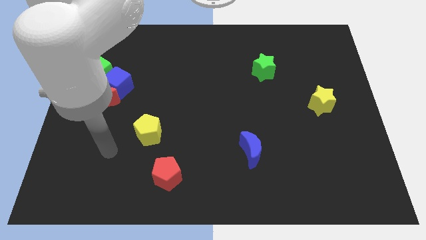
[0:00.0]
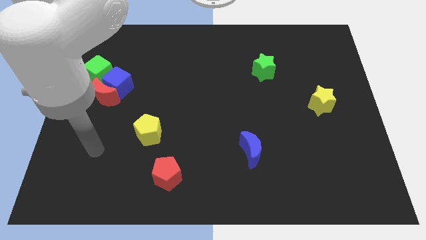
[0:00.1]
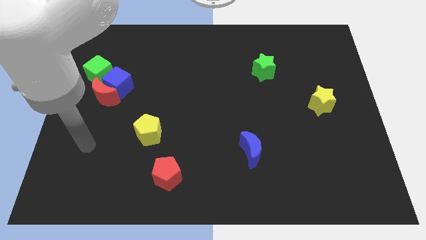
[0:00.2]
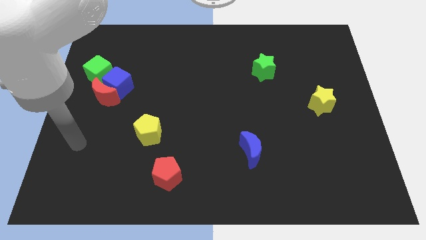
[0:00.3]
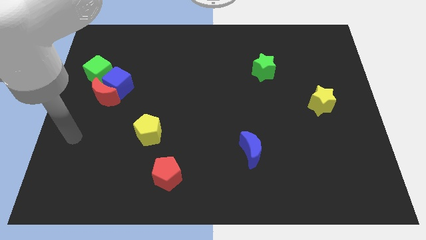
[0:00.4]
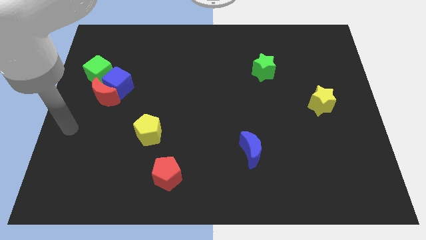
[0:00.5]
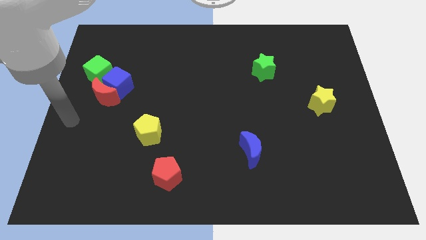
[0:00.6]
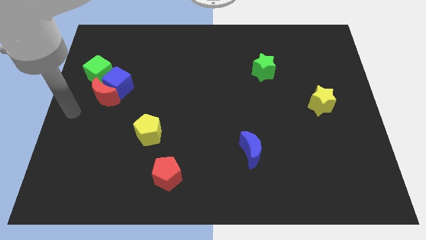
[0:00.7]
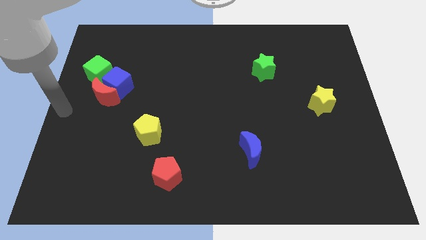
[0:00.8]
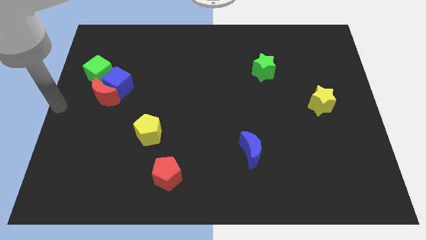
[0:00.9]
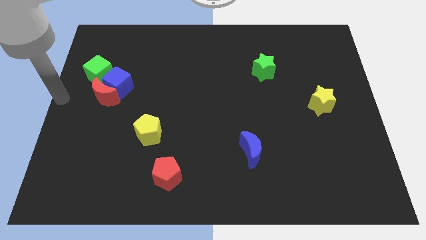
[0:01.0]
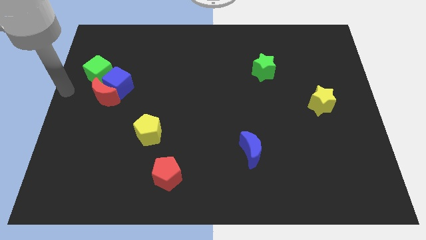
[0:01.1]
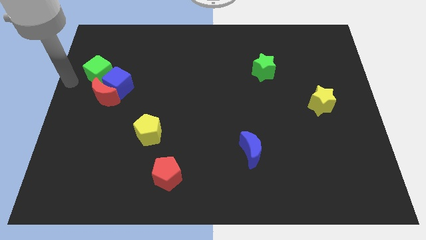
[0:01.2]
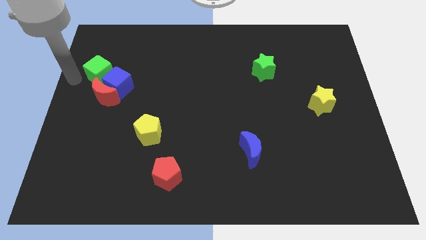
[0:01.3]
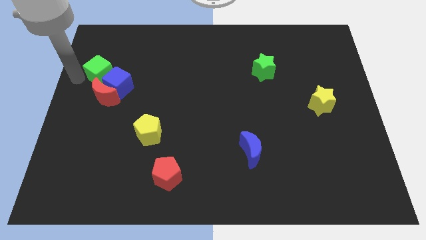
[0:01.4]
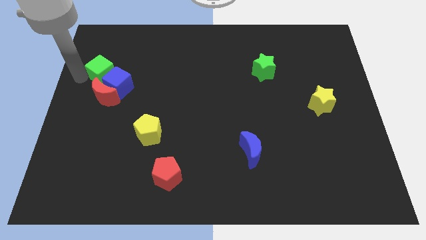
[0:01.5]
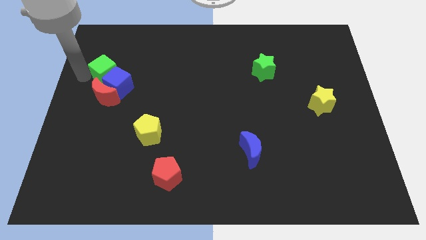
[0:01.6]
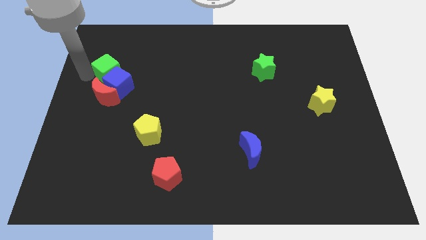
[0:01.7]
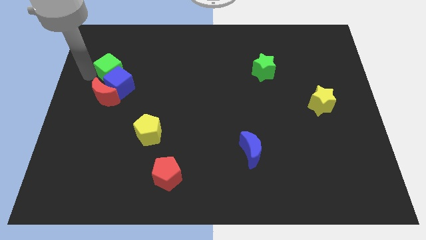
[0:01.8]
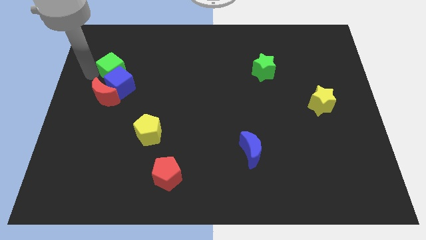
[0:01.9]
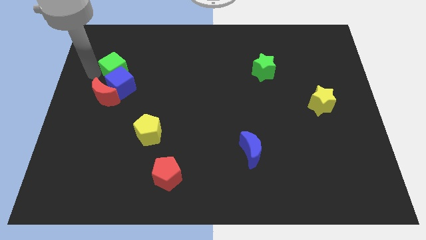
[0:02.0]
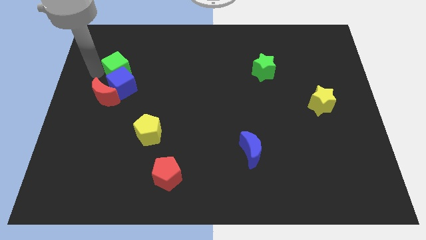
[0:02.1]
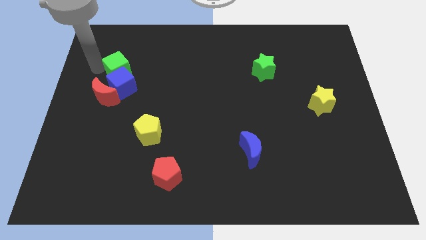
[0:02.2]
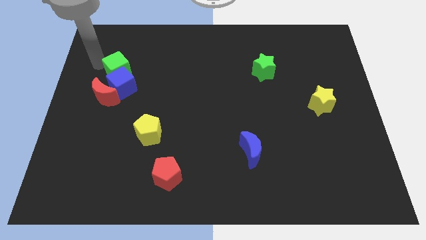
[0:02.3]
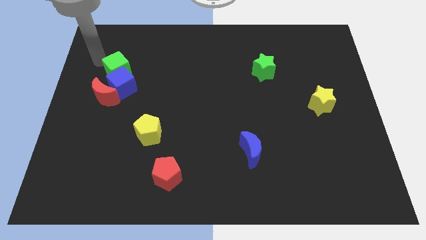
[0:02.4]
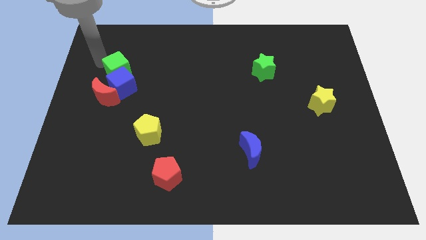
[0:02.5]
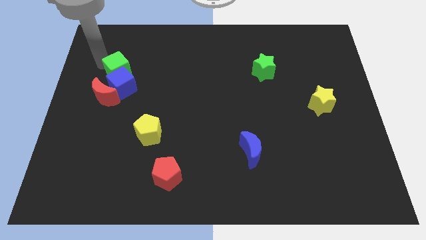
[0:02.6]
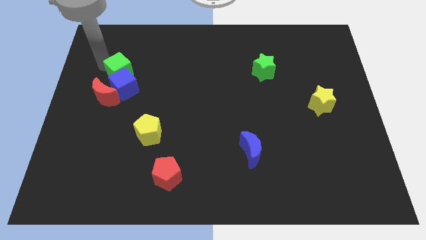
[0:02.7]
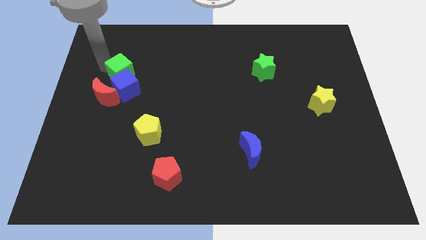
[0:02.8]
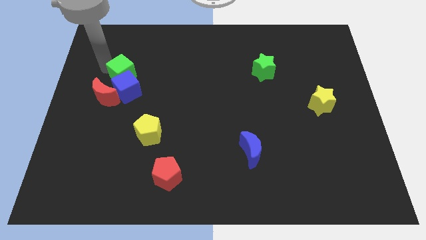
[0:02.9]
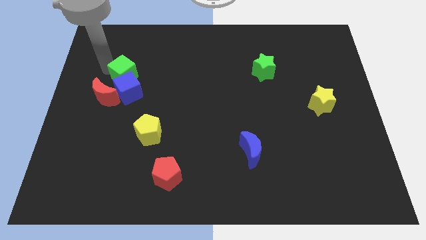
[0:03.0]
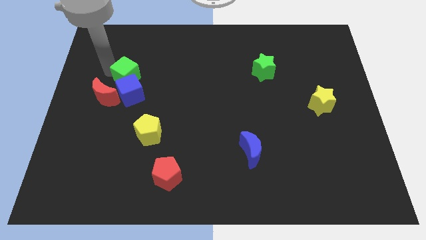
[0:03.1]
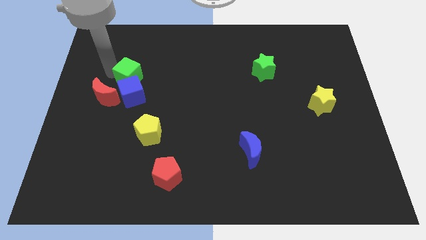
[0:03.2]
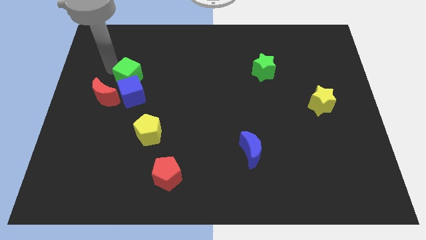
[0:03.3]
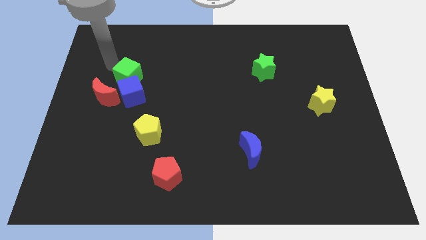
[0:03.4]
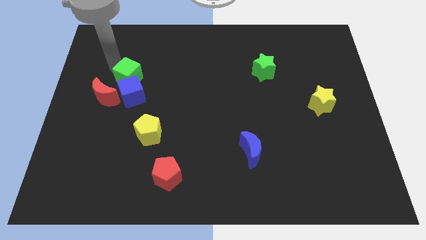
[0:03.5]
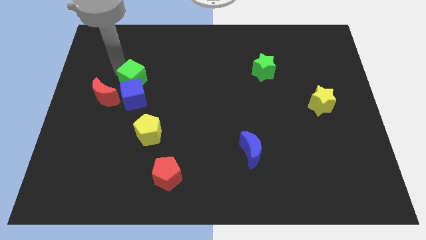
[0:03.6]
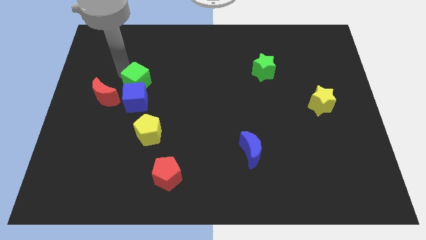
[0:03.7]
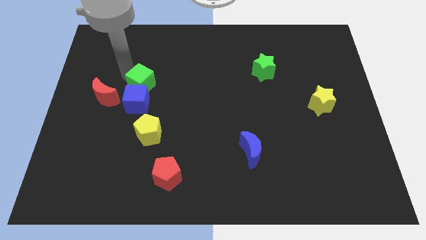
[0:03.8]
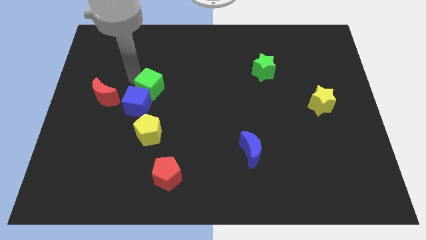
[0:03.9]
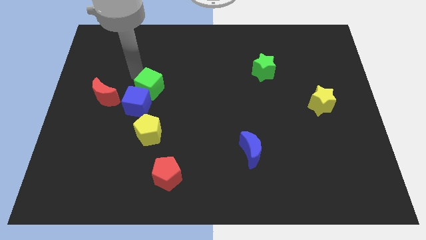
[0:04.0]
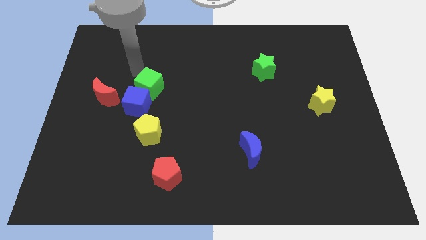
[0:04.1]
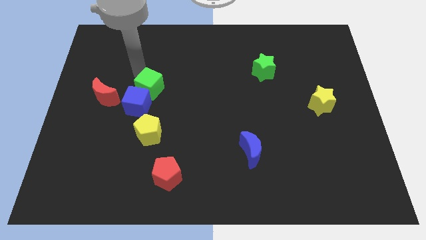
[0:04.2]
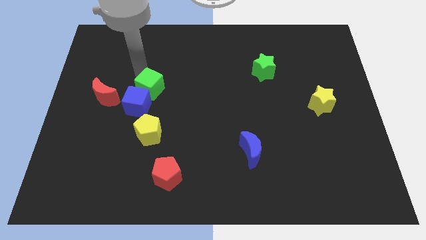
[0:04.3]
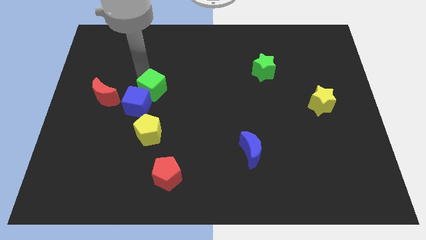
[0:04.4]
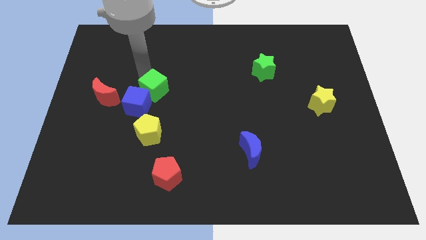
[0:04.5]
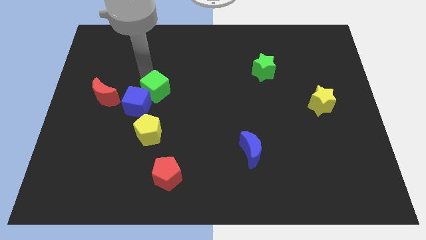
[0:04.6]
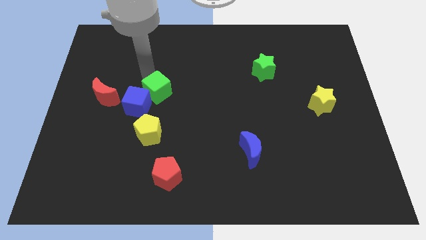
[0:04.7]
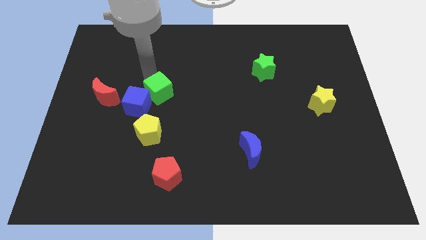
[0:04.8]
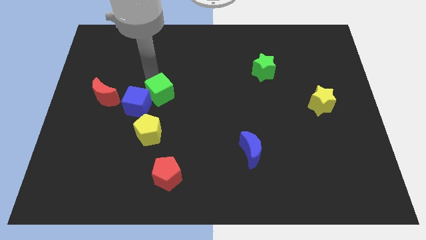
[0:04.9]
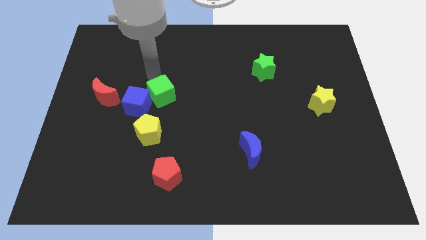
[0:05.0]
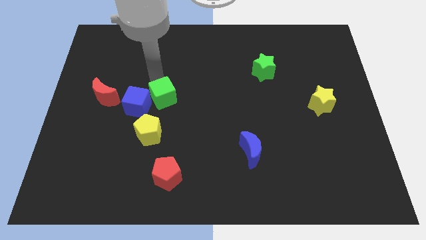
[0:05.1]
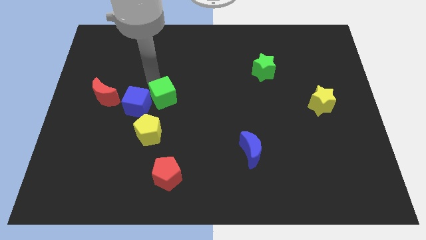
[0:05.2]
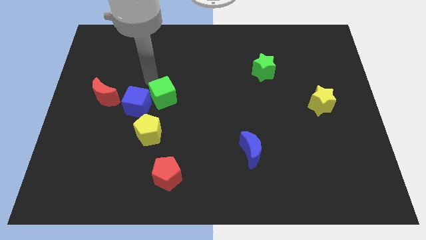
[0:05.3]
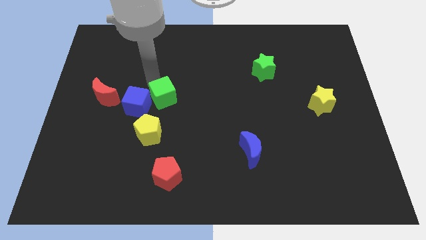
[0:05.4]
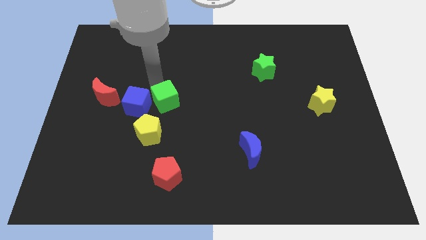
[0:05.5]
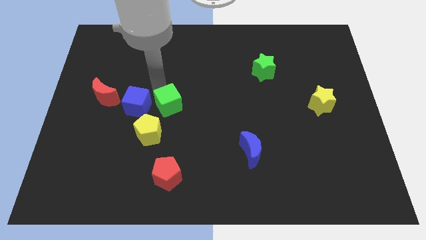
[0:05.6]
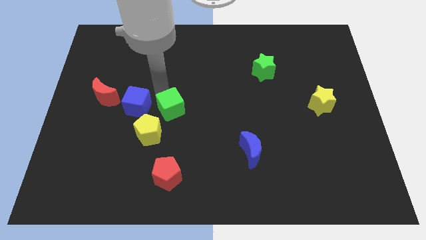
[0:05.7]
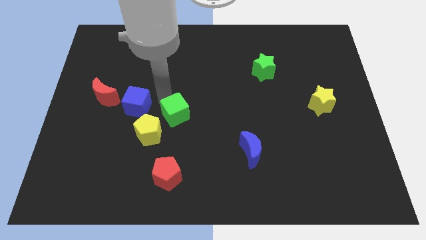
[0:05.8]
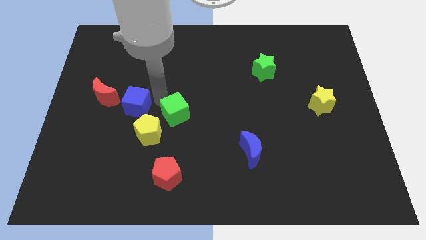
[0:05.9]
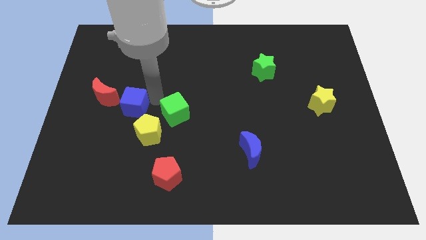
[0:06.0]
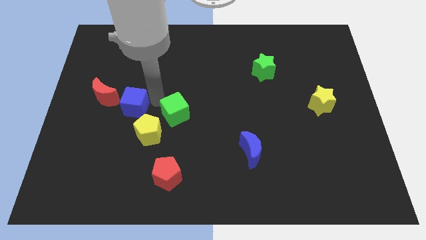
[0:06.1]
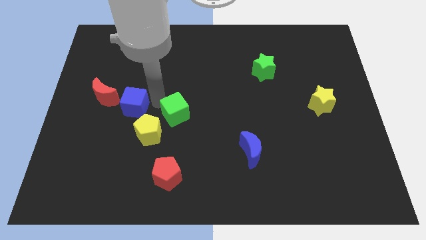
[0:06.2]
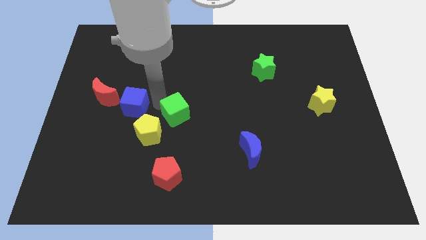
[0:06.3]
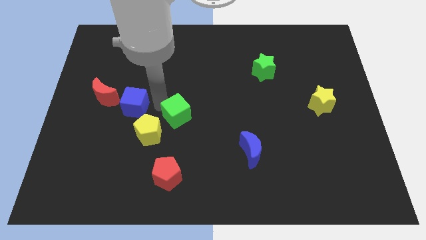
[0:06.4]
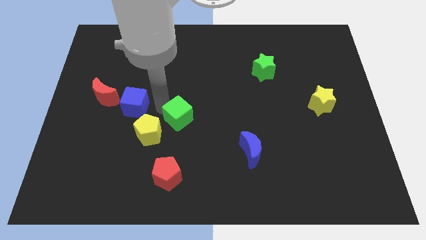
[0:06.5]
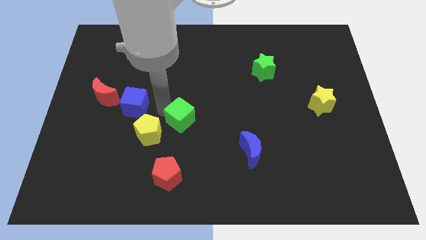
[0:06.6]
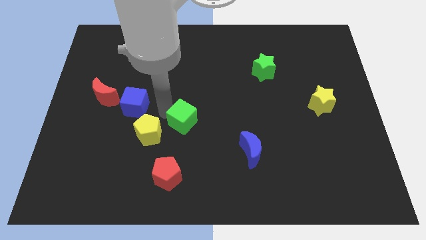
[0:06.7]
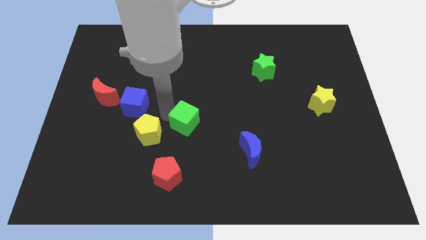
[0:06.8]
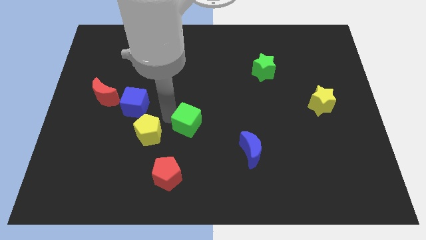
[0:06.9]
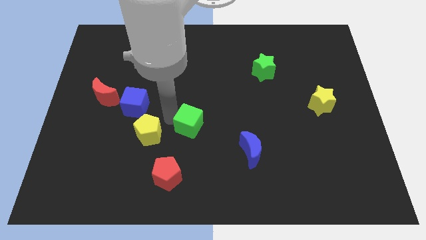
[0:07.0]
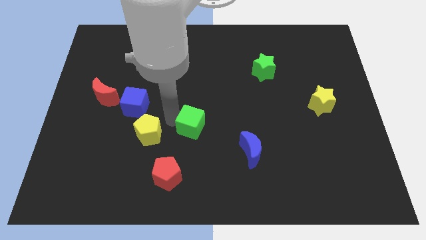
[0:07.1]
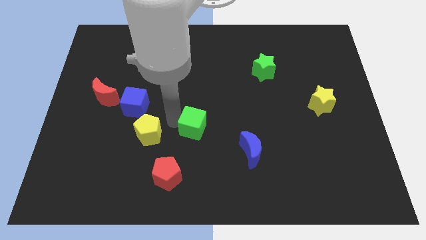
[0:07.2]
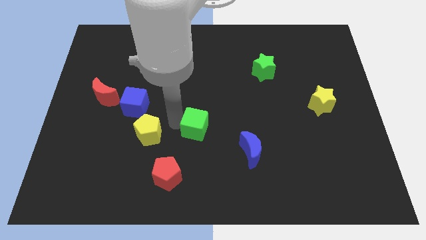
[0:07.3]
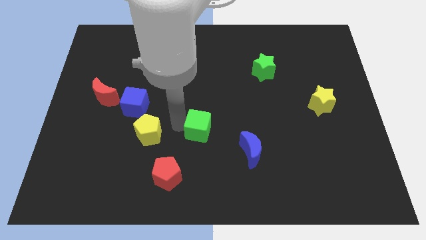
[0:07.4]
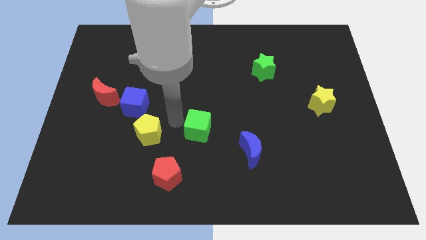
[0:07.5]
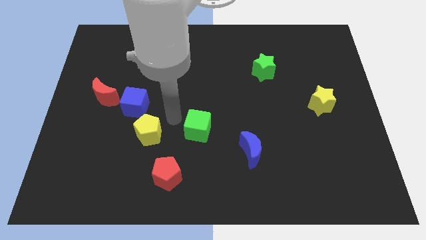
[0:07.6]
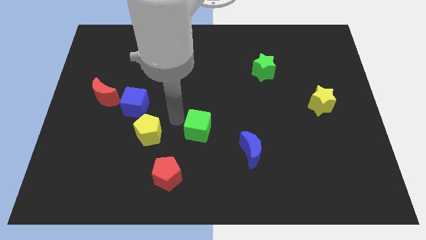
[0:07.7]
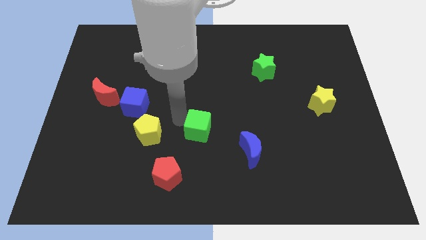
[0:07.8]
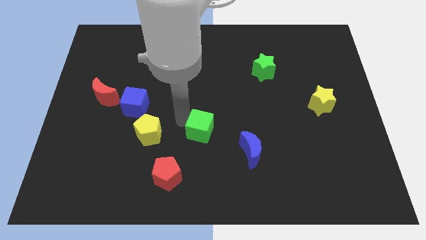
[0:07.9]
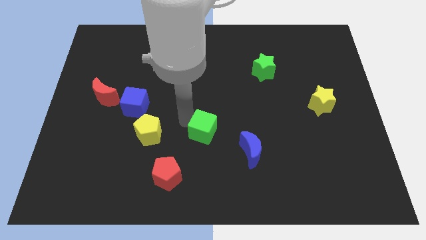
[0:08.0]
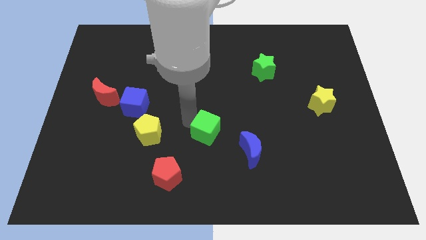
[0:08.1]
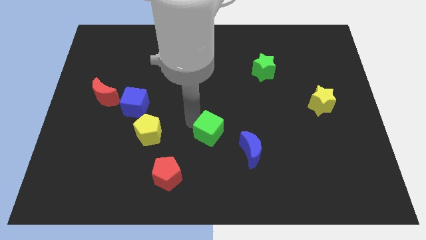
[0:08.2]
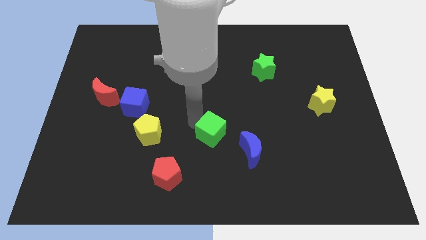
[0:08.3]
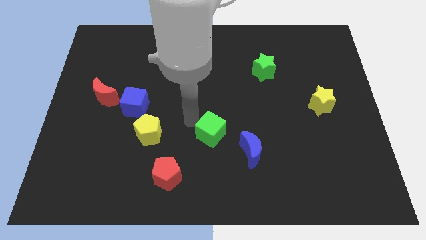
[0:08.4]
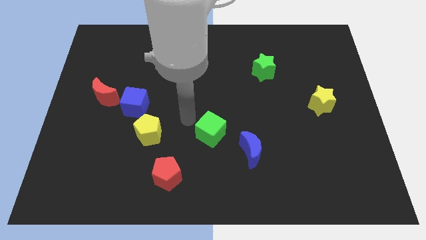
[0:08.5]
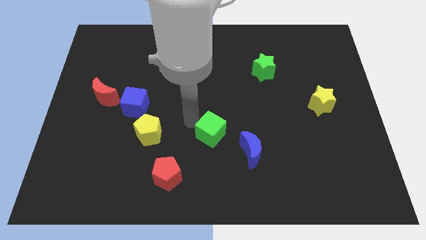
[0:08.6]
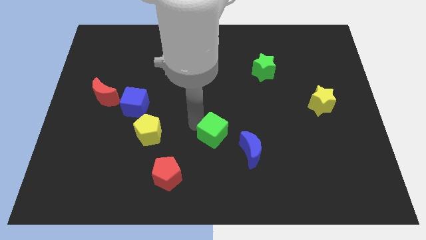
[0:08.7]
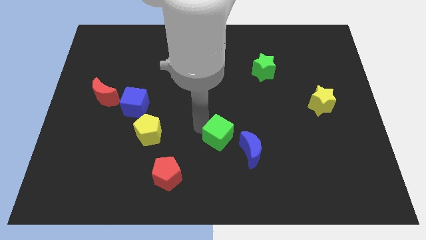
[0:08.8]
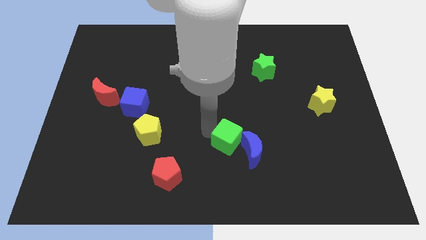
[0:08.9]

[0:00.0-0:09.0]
move the green cube next to the blue moon
